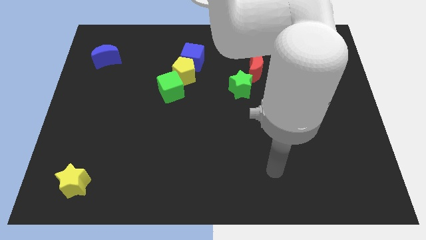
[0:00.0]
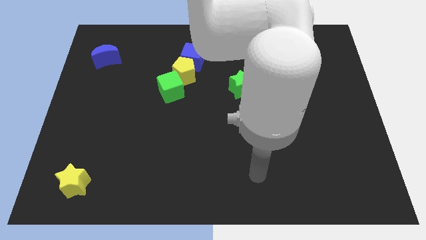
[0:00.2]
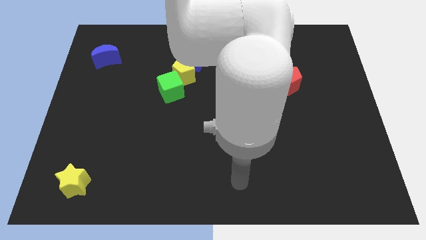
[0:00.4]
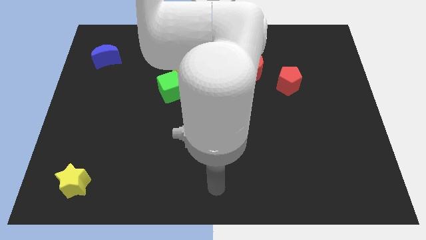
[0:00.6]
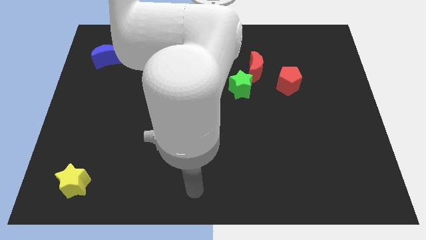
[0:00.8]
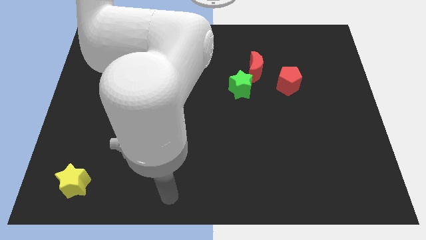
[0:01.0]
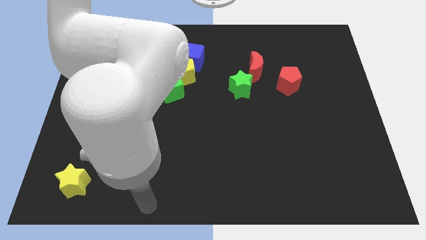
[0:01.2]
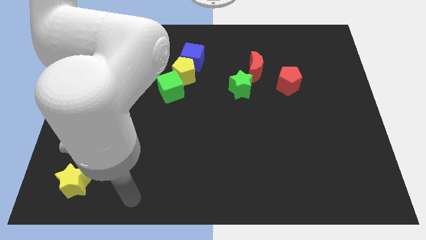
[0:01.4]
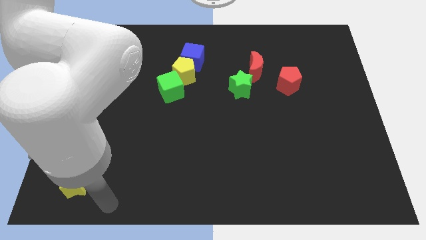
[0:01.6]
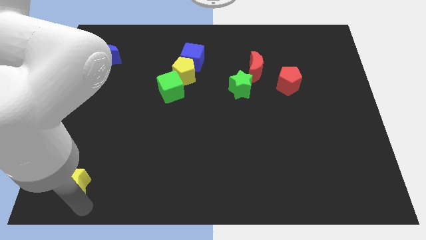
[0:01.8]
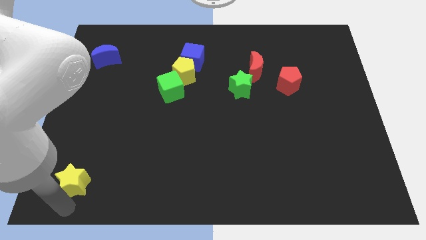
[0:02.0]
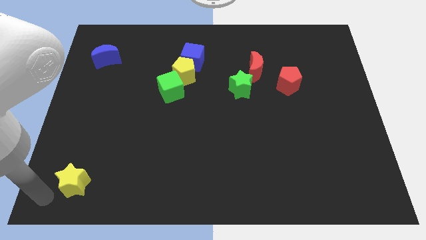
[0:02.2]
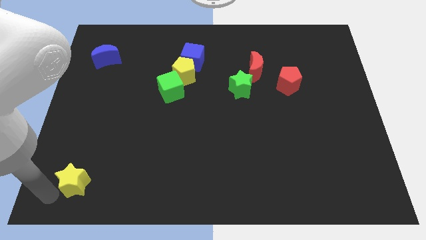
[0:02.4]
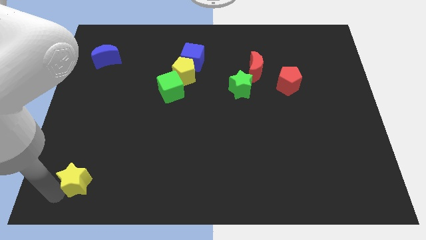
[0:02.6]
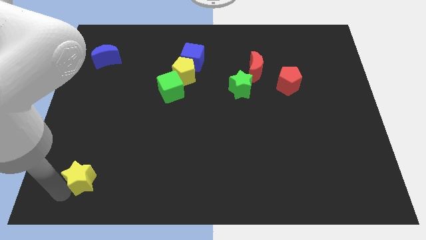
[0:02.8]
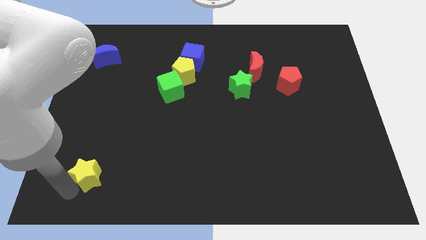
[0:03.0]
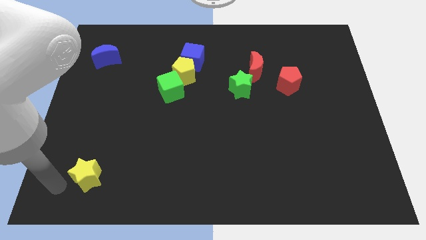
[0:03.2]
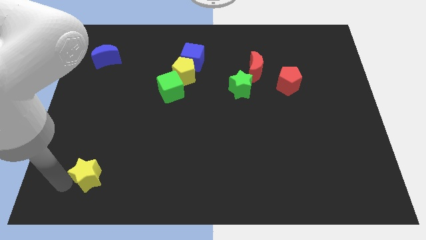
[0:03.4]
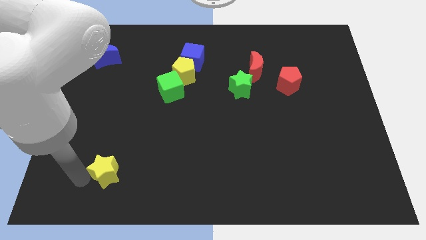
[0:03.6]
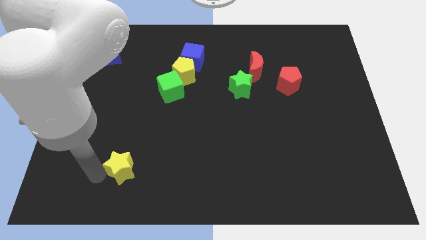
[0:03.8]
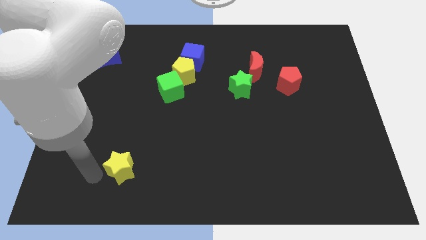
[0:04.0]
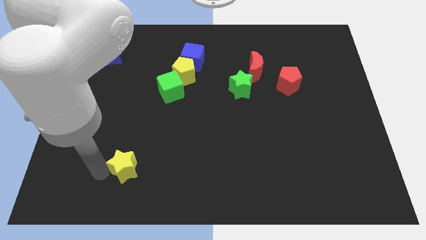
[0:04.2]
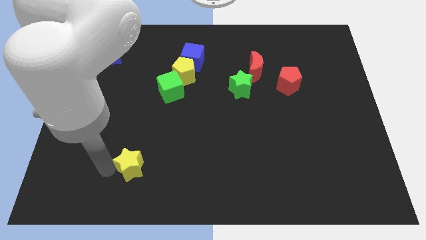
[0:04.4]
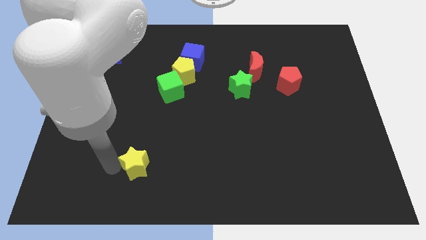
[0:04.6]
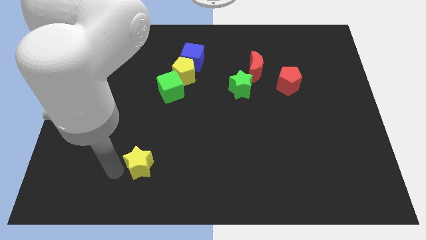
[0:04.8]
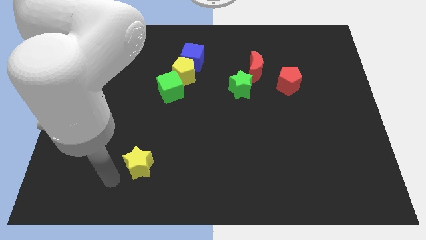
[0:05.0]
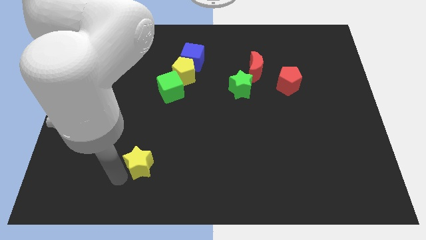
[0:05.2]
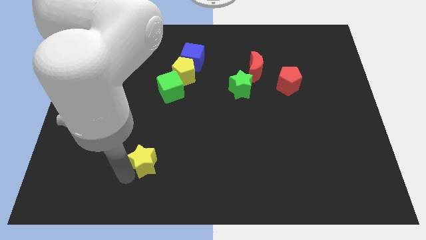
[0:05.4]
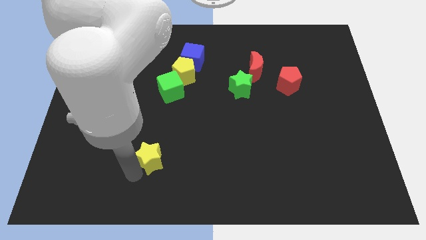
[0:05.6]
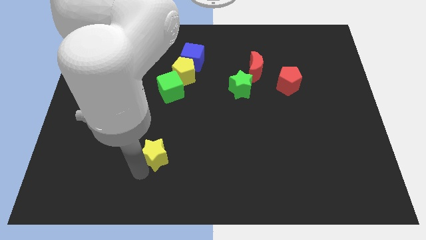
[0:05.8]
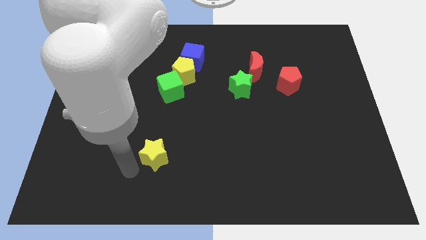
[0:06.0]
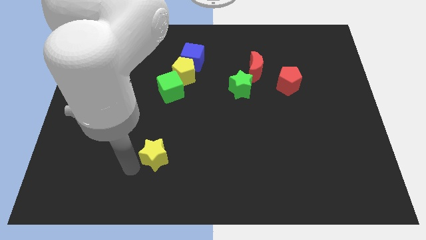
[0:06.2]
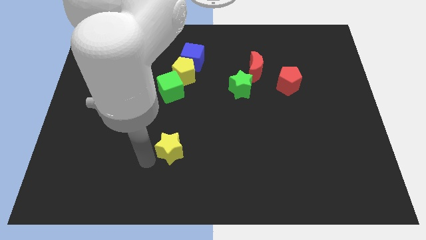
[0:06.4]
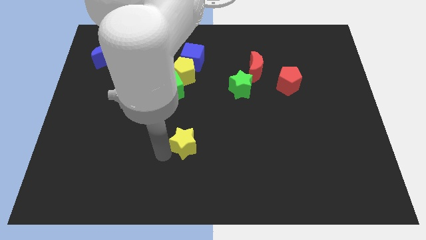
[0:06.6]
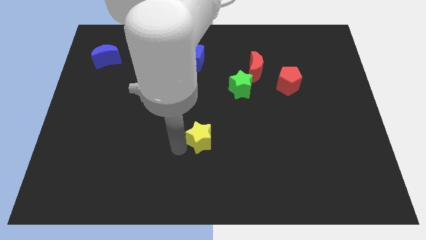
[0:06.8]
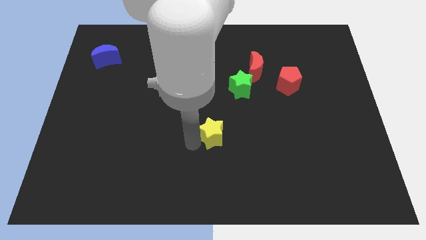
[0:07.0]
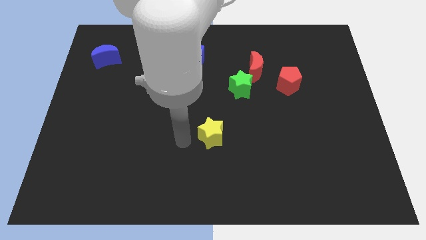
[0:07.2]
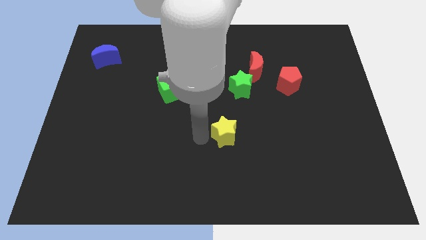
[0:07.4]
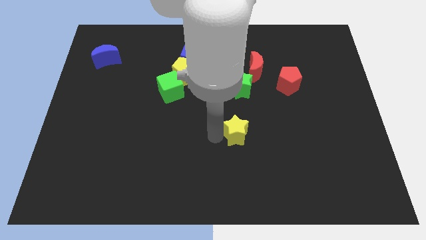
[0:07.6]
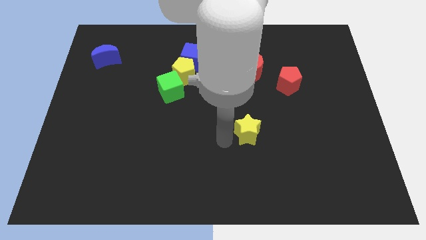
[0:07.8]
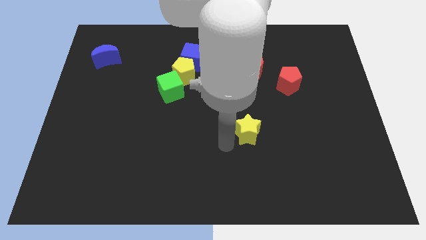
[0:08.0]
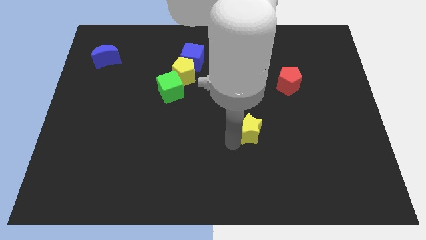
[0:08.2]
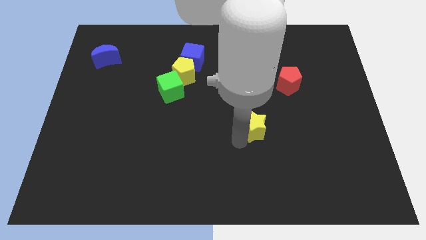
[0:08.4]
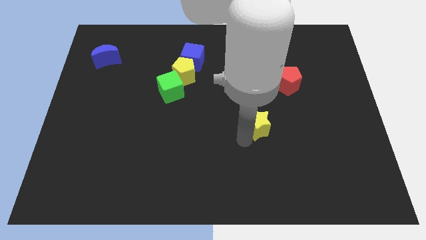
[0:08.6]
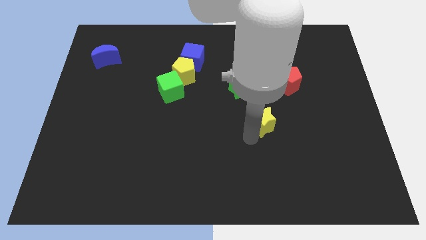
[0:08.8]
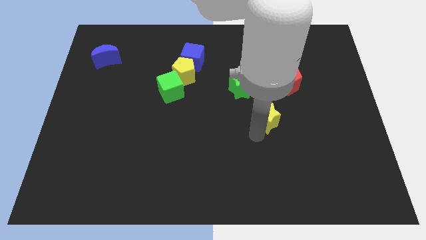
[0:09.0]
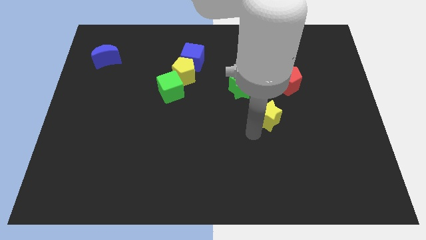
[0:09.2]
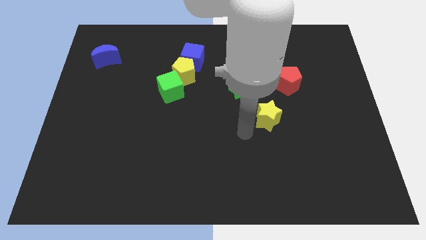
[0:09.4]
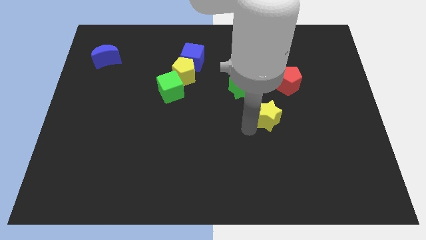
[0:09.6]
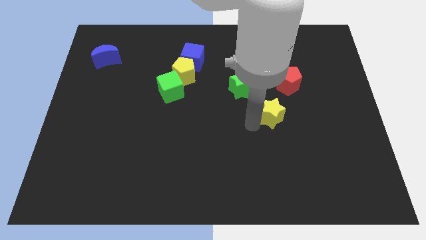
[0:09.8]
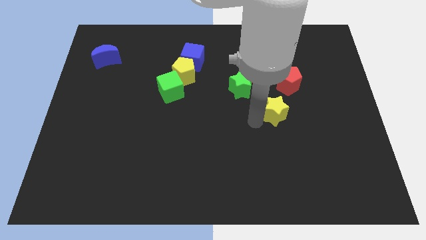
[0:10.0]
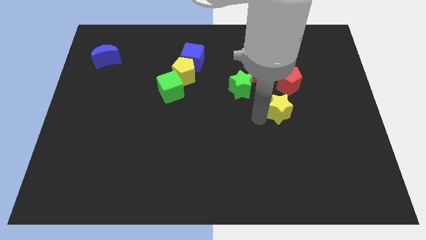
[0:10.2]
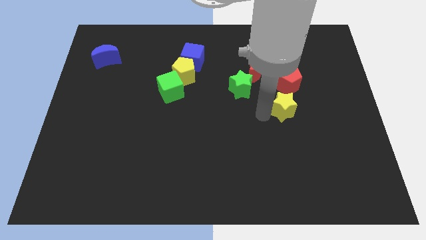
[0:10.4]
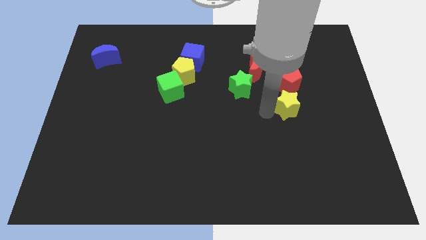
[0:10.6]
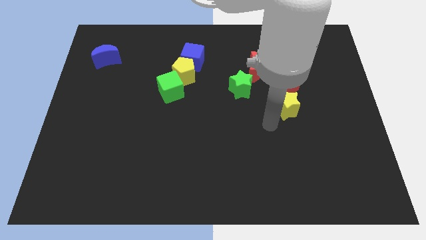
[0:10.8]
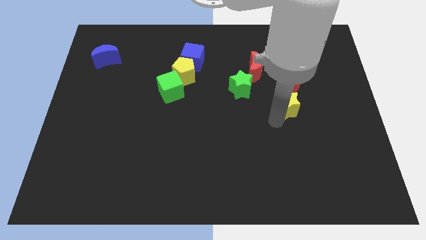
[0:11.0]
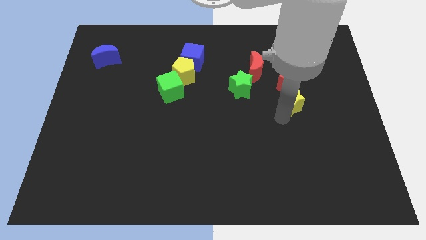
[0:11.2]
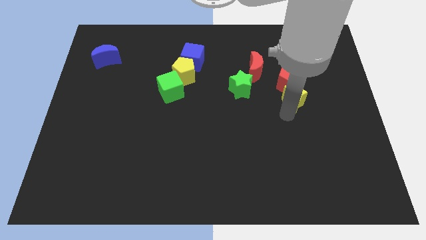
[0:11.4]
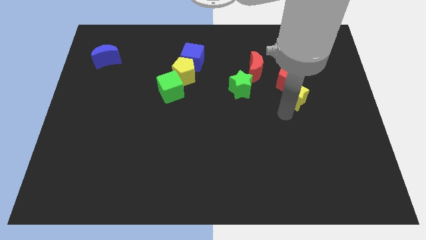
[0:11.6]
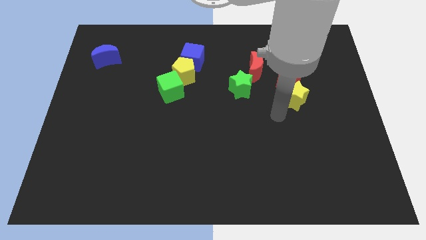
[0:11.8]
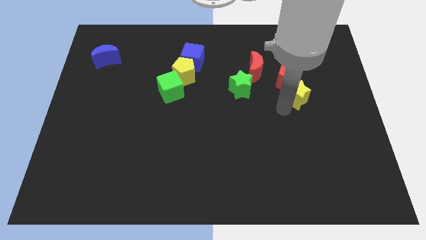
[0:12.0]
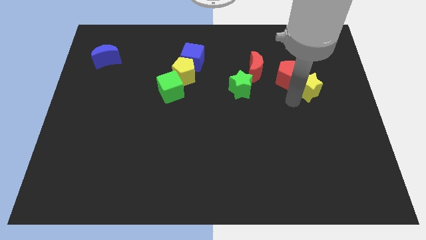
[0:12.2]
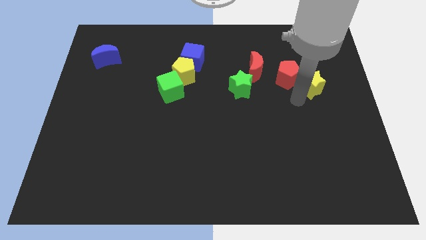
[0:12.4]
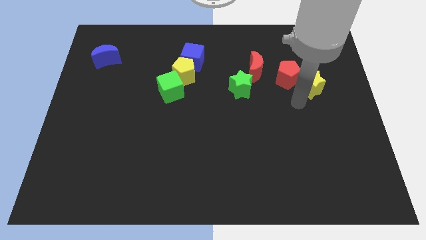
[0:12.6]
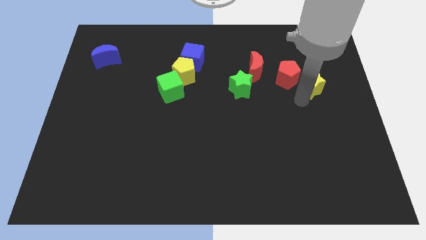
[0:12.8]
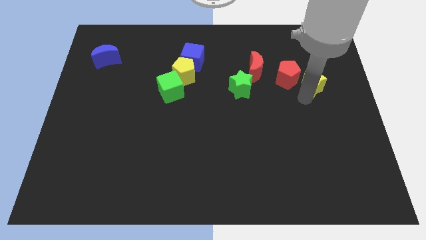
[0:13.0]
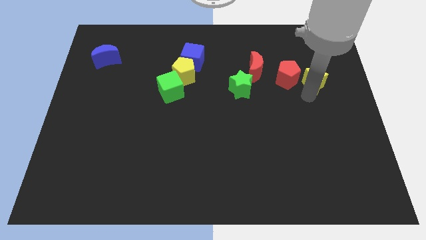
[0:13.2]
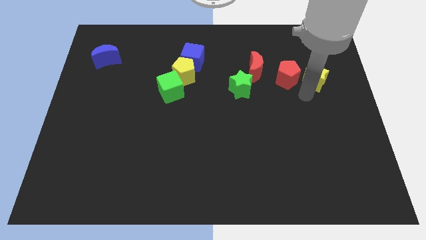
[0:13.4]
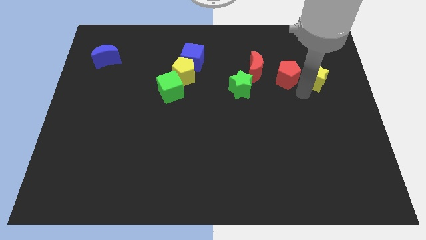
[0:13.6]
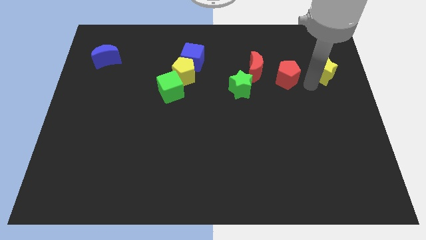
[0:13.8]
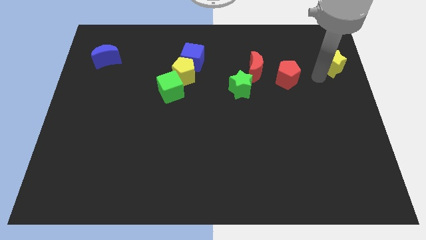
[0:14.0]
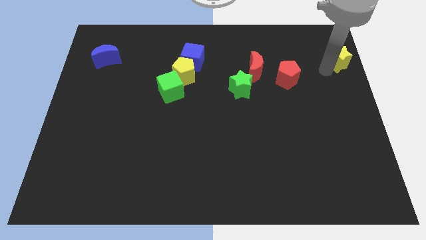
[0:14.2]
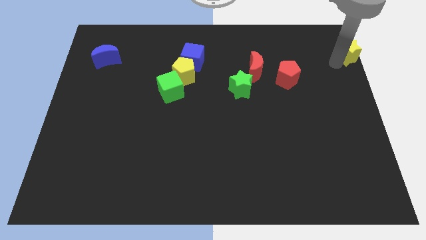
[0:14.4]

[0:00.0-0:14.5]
move the yellow star to the top right of the board
